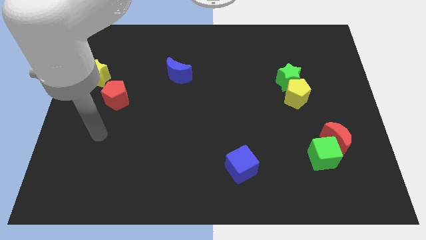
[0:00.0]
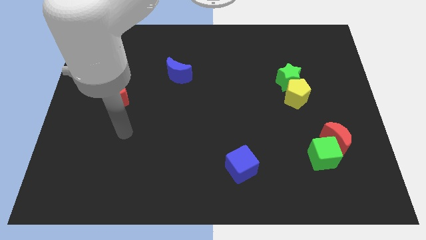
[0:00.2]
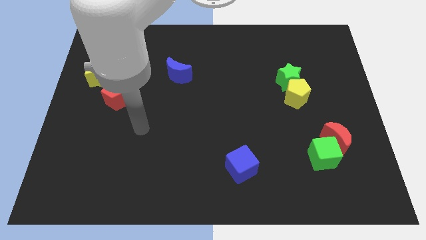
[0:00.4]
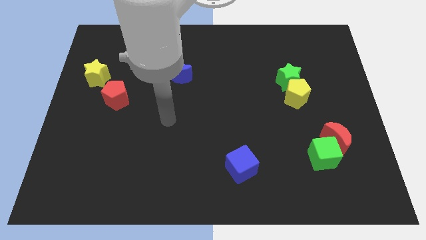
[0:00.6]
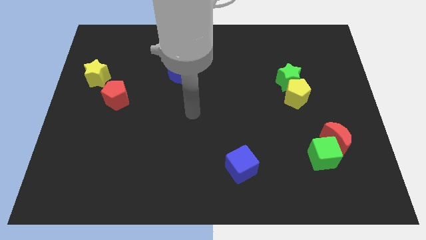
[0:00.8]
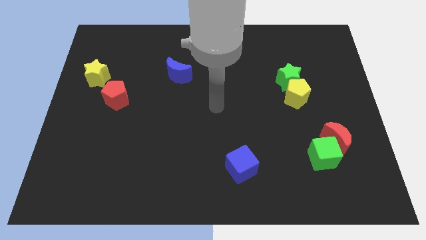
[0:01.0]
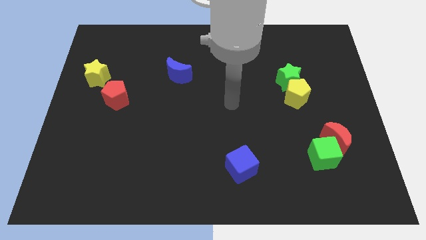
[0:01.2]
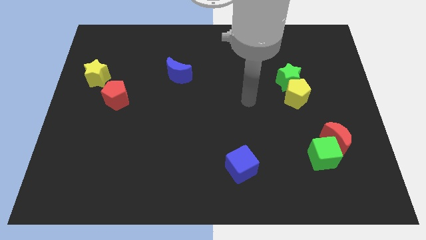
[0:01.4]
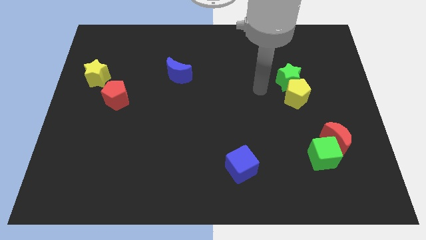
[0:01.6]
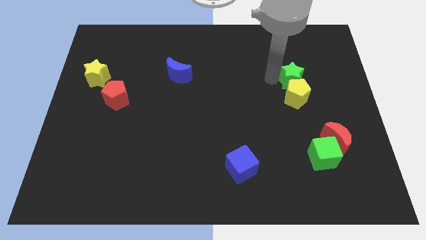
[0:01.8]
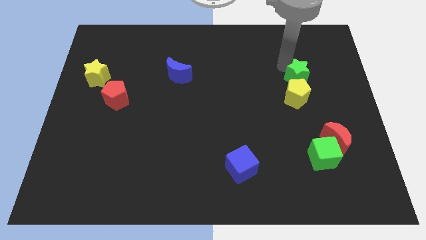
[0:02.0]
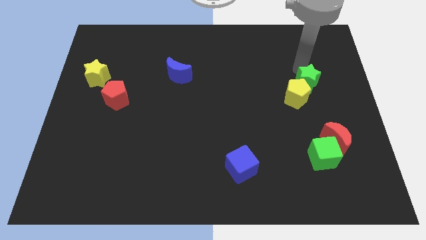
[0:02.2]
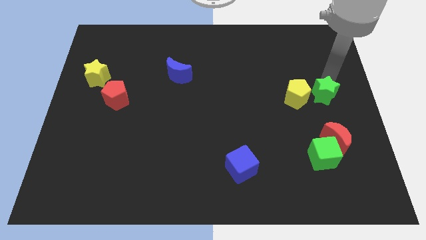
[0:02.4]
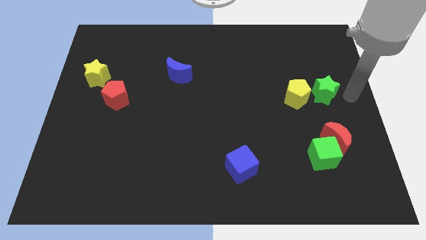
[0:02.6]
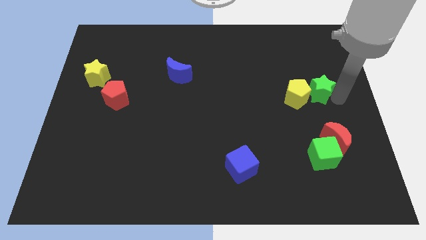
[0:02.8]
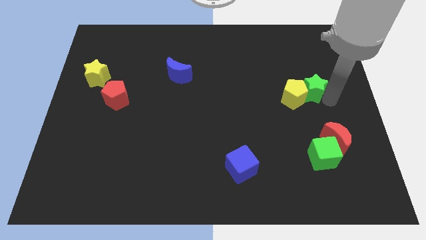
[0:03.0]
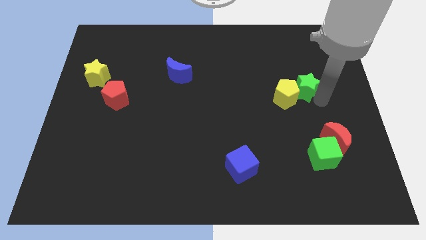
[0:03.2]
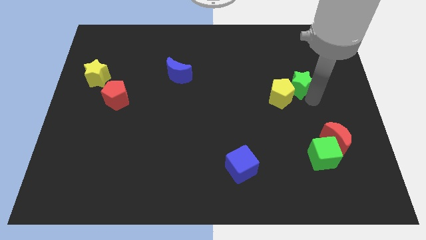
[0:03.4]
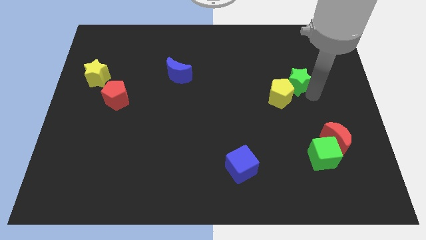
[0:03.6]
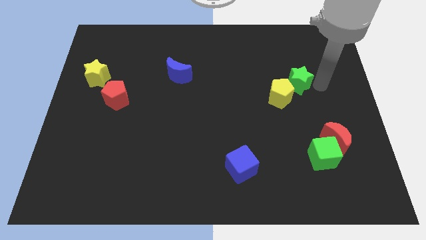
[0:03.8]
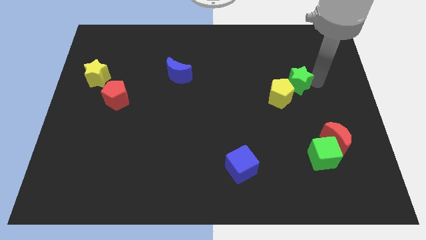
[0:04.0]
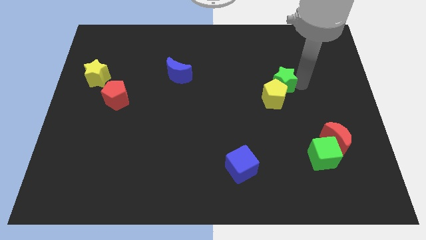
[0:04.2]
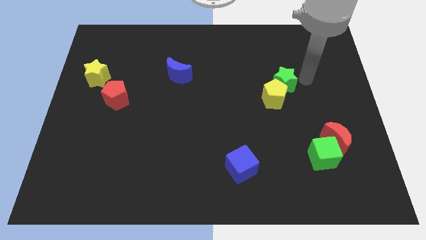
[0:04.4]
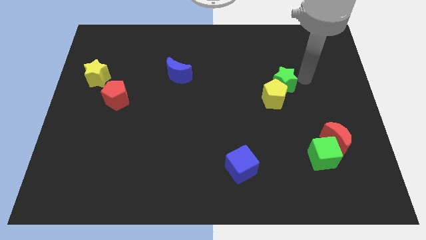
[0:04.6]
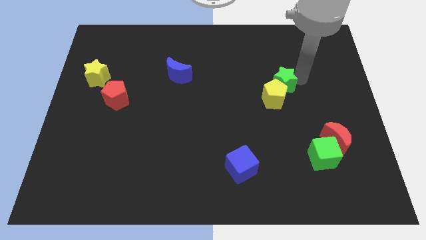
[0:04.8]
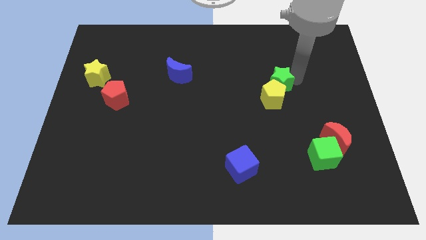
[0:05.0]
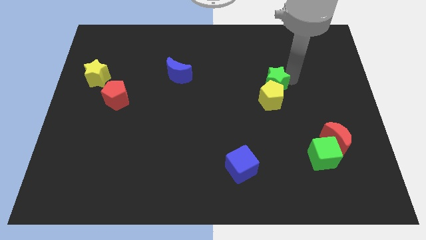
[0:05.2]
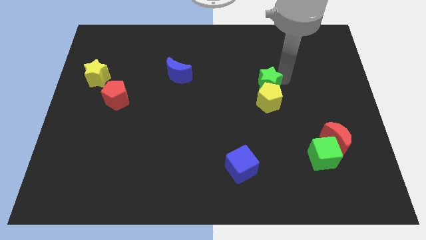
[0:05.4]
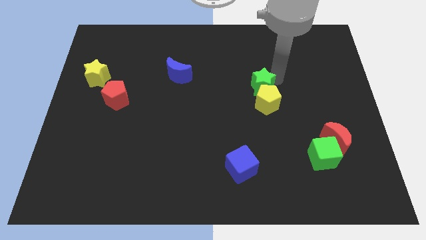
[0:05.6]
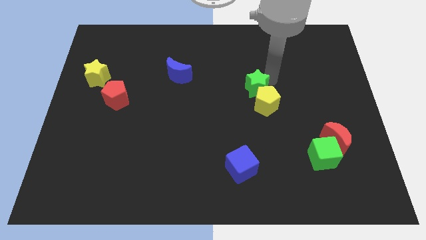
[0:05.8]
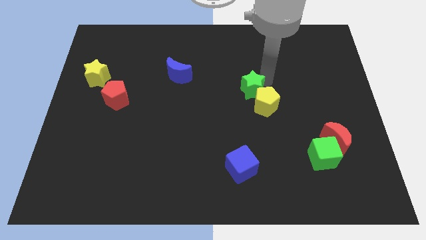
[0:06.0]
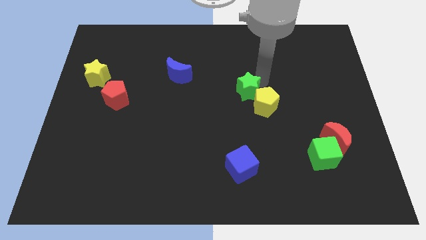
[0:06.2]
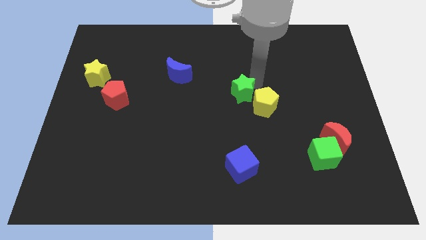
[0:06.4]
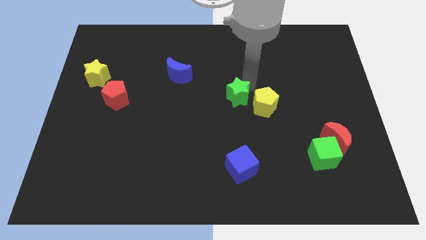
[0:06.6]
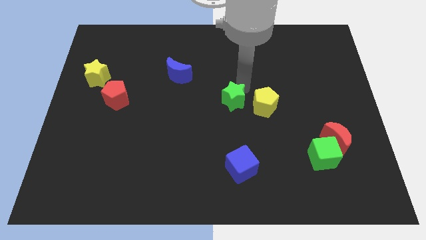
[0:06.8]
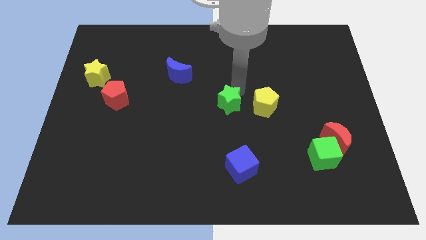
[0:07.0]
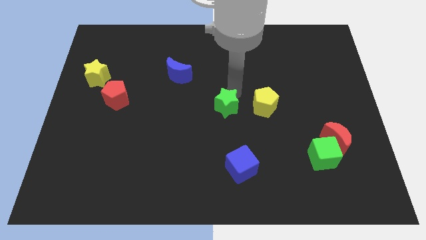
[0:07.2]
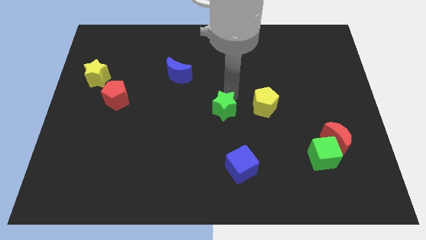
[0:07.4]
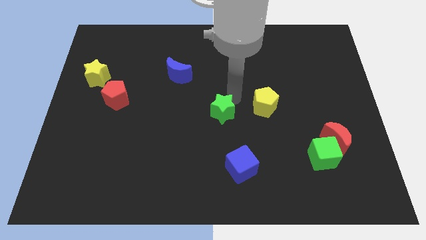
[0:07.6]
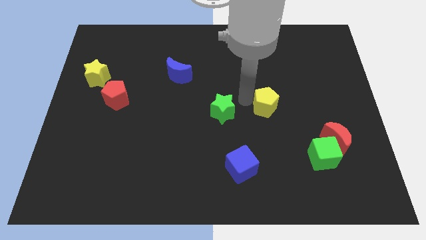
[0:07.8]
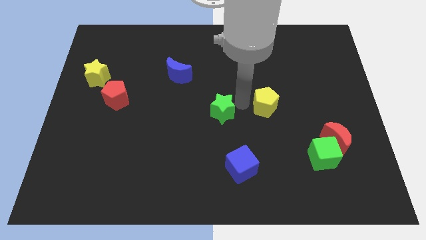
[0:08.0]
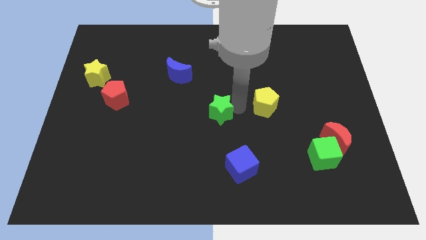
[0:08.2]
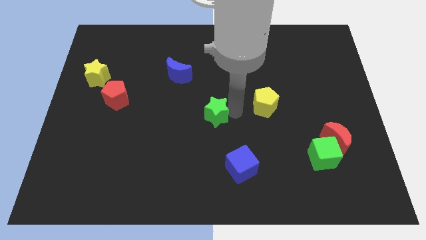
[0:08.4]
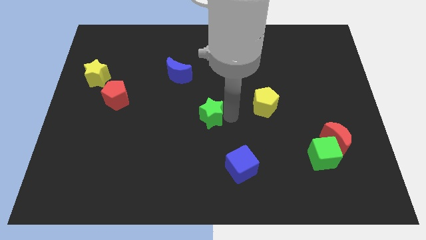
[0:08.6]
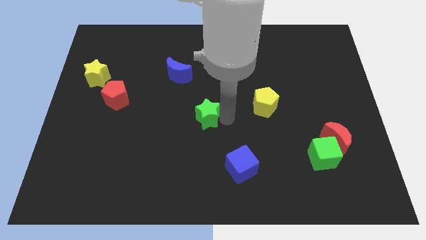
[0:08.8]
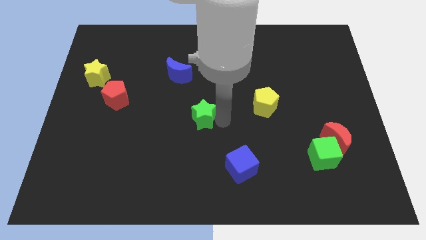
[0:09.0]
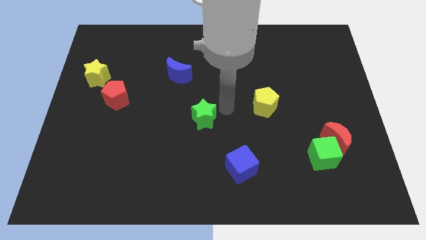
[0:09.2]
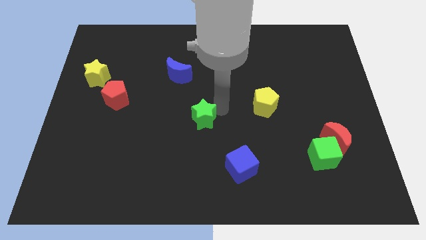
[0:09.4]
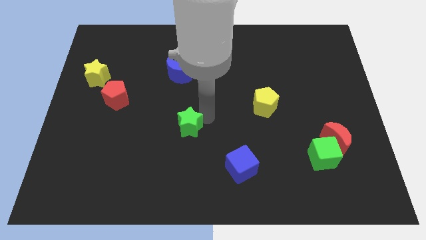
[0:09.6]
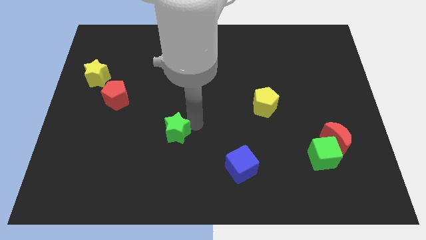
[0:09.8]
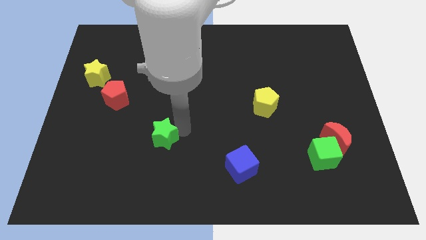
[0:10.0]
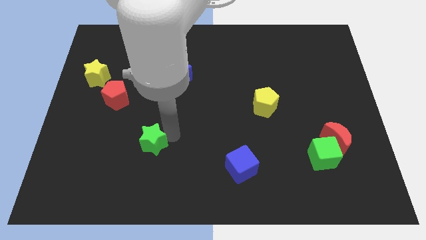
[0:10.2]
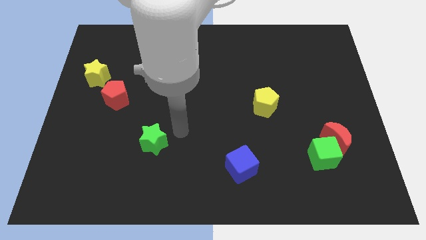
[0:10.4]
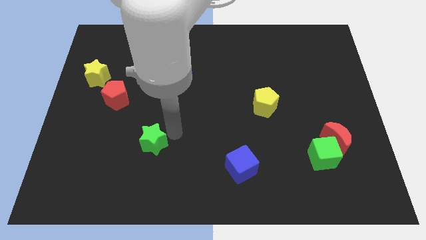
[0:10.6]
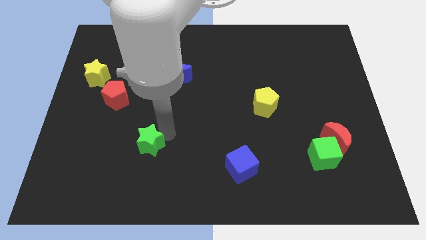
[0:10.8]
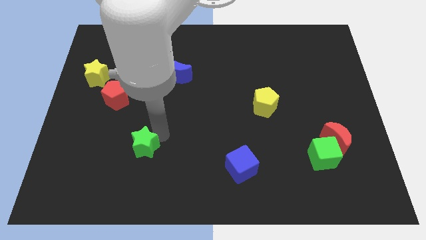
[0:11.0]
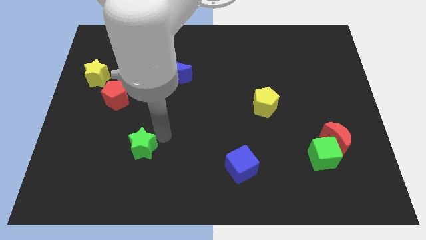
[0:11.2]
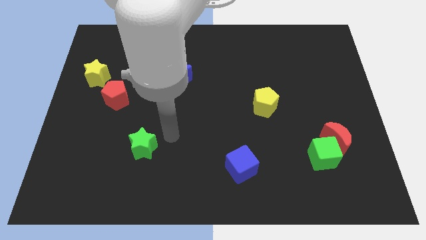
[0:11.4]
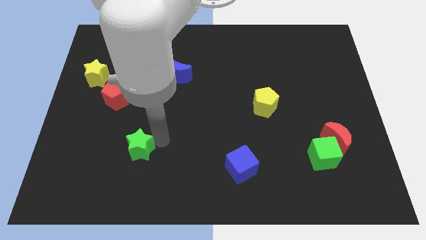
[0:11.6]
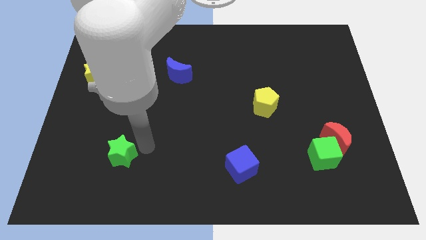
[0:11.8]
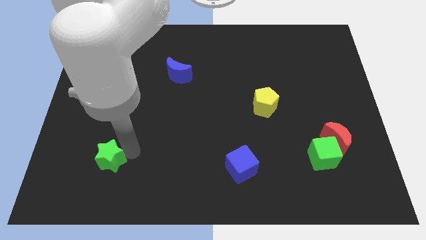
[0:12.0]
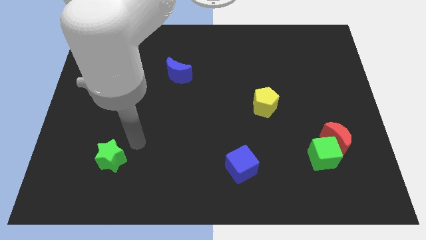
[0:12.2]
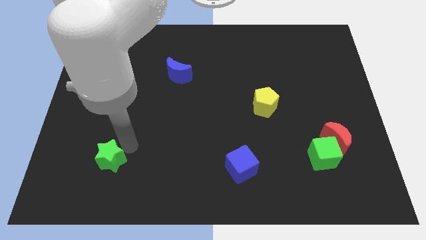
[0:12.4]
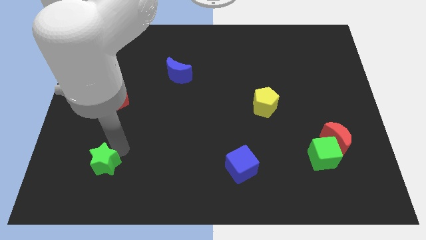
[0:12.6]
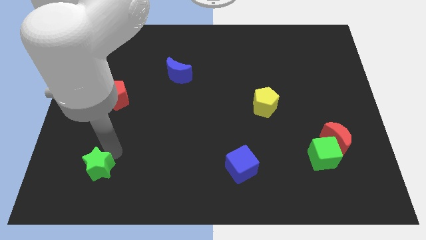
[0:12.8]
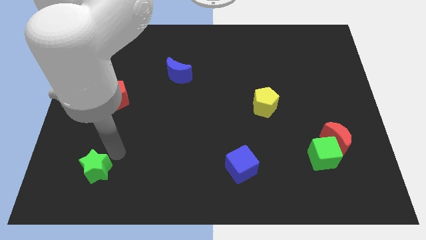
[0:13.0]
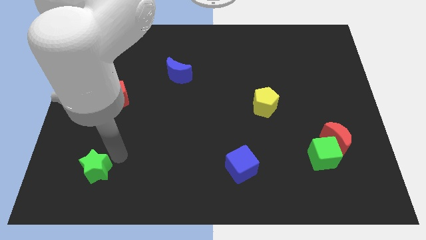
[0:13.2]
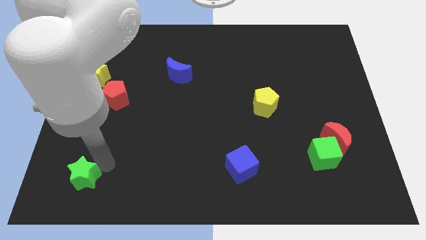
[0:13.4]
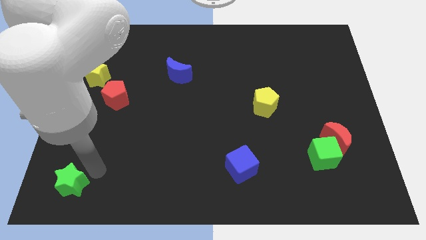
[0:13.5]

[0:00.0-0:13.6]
slide the green star to the bottom left of the board
